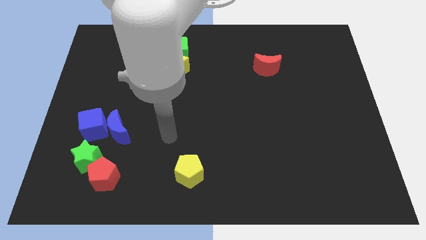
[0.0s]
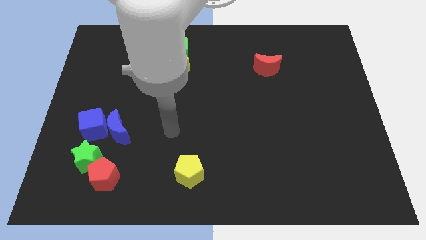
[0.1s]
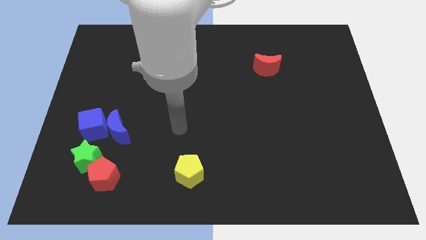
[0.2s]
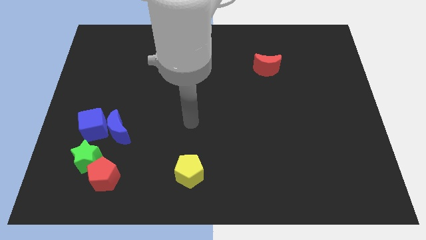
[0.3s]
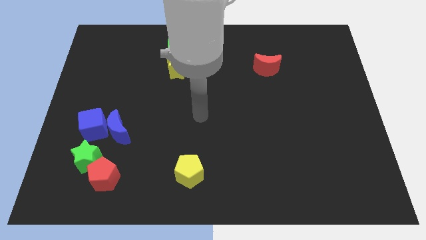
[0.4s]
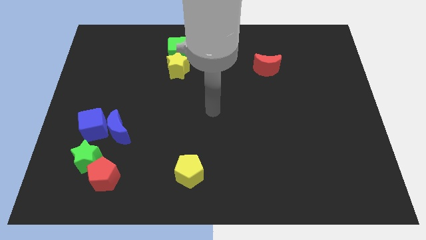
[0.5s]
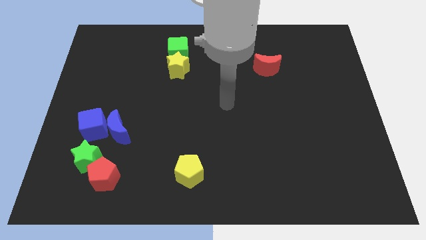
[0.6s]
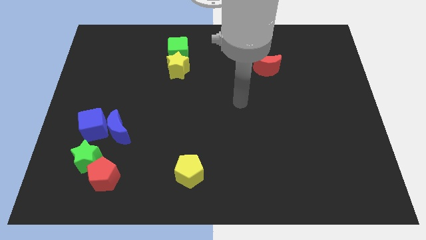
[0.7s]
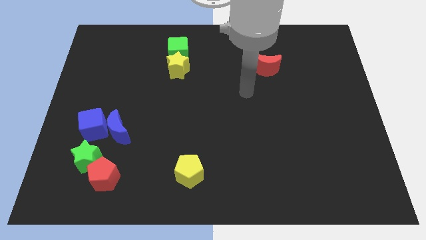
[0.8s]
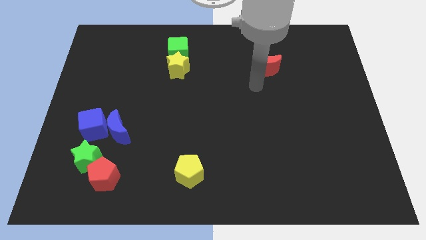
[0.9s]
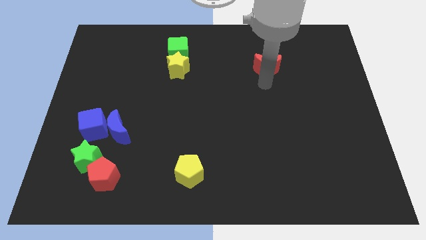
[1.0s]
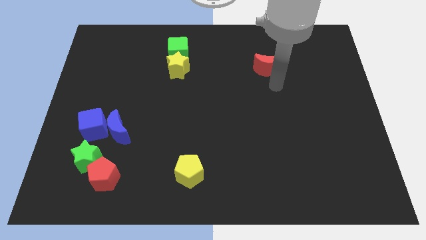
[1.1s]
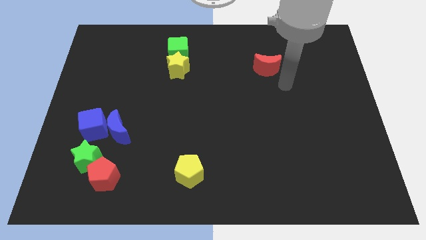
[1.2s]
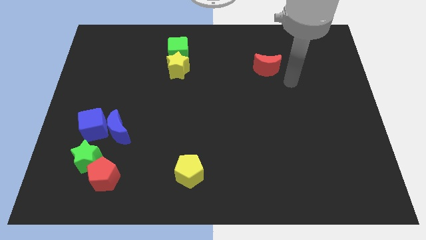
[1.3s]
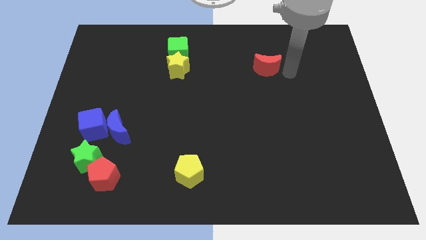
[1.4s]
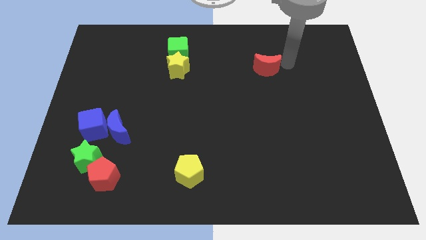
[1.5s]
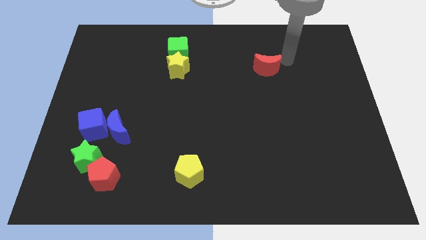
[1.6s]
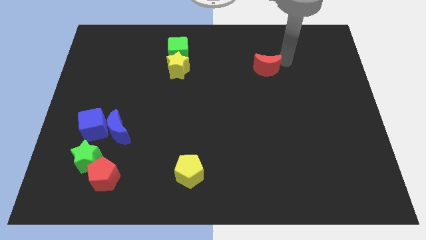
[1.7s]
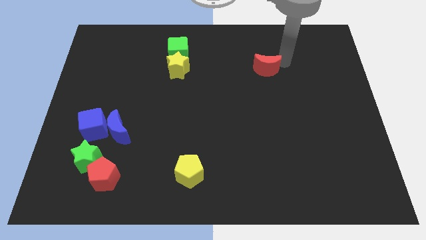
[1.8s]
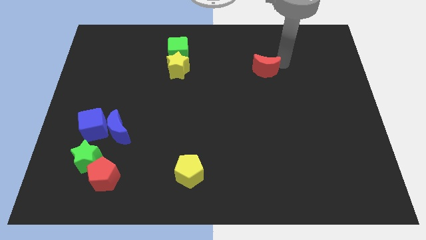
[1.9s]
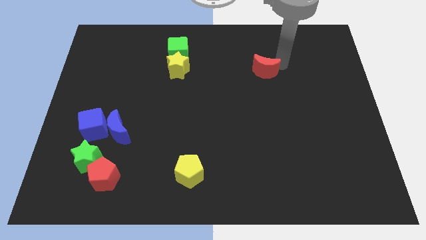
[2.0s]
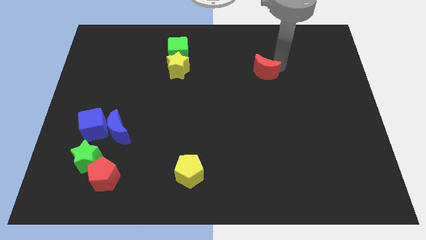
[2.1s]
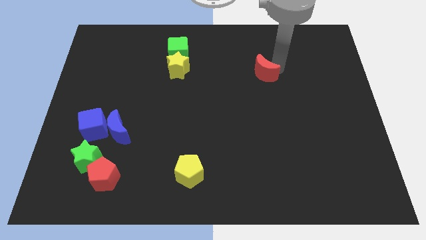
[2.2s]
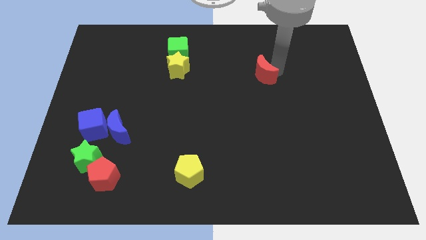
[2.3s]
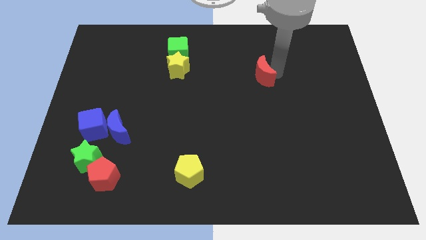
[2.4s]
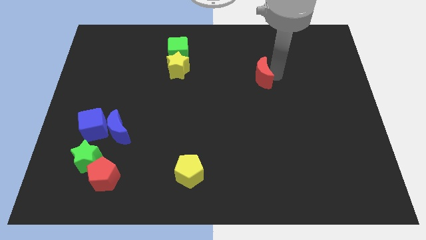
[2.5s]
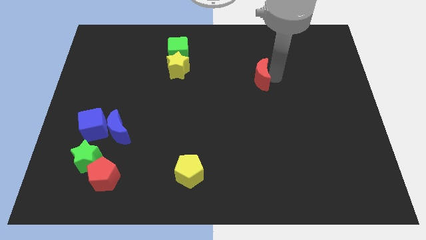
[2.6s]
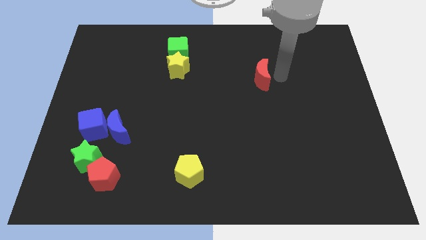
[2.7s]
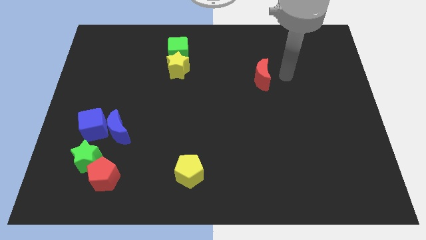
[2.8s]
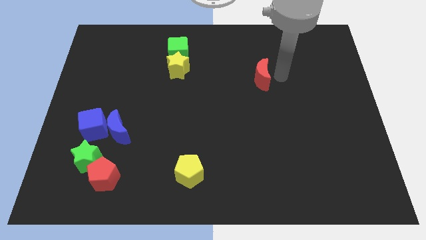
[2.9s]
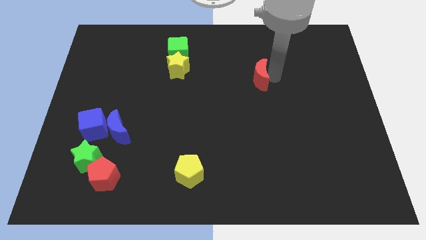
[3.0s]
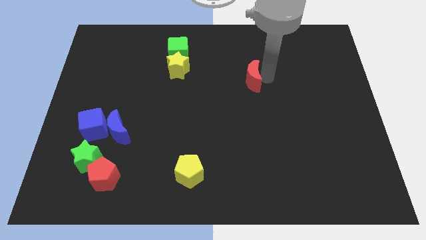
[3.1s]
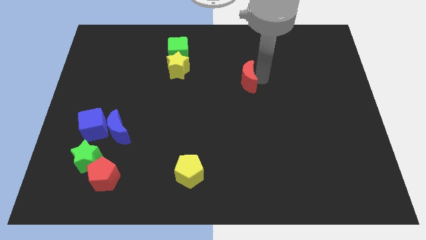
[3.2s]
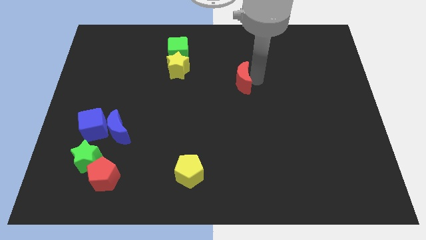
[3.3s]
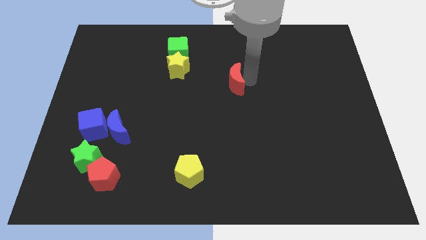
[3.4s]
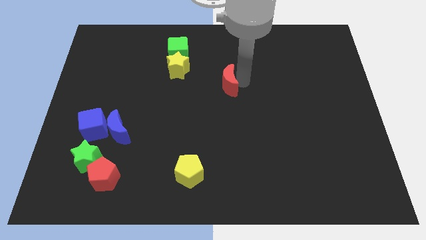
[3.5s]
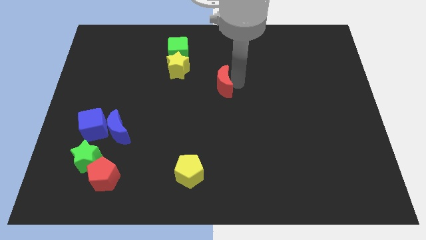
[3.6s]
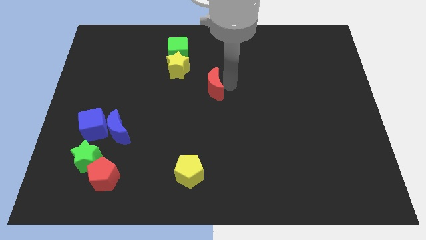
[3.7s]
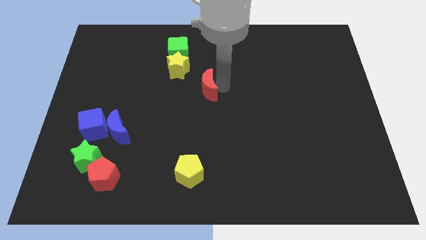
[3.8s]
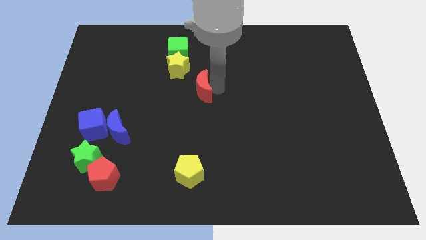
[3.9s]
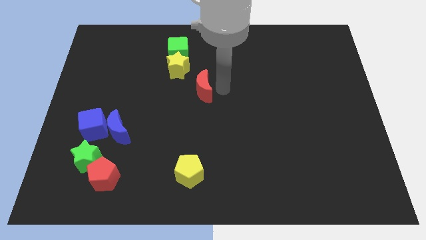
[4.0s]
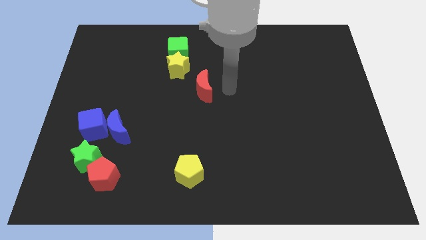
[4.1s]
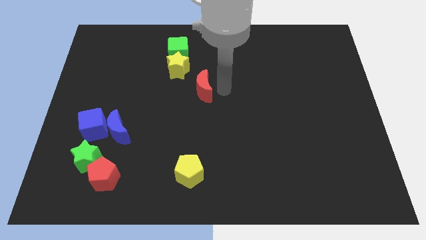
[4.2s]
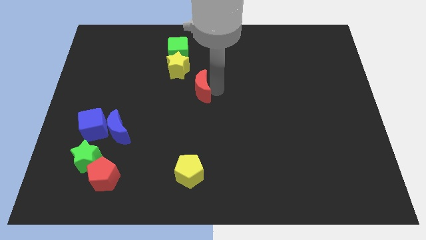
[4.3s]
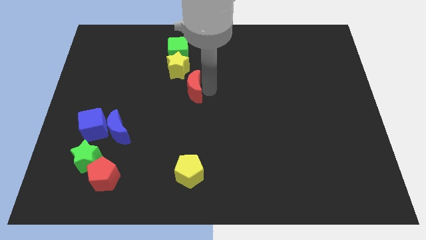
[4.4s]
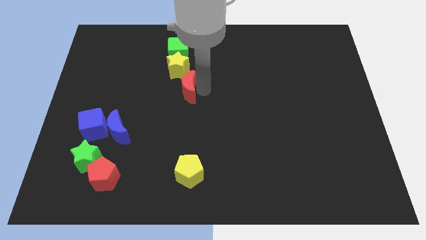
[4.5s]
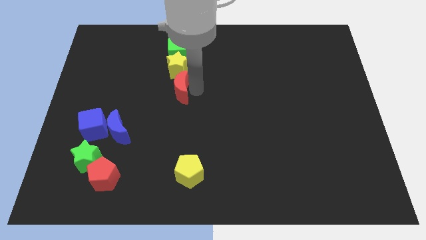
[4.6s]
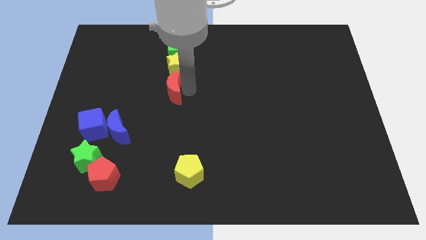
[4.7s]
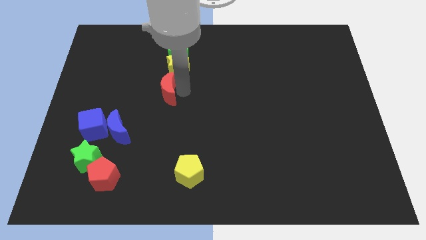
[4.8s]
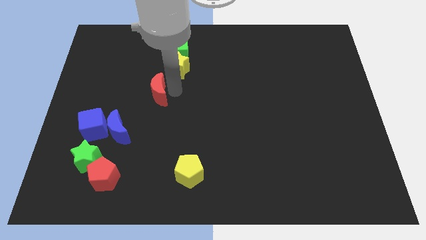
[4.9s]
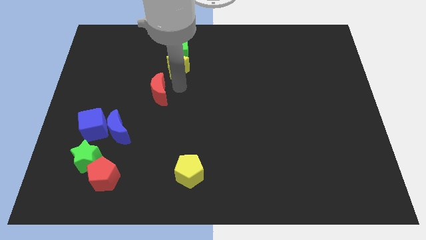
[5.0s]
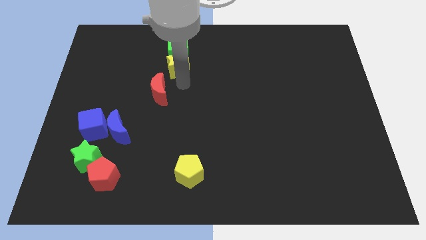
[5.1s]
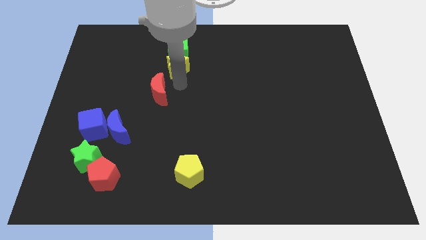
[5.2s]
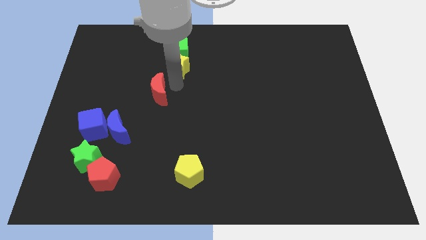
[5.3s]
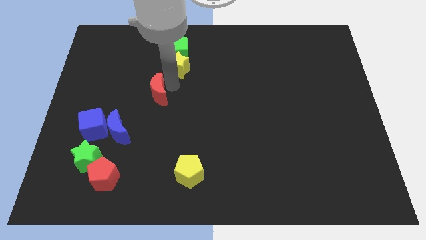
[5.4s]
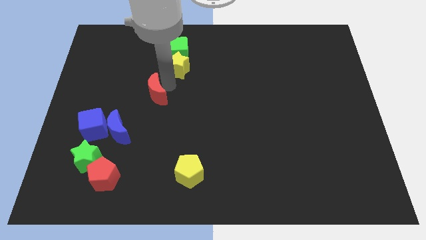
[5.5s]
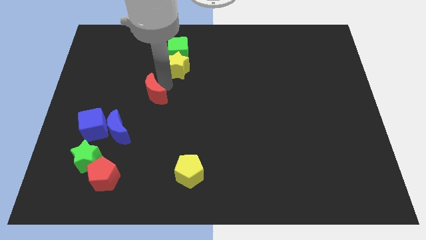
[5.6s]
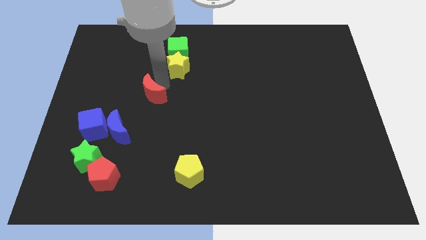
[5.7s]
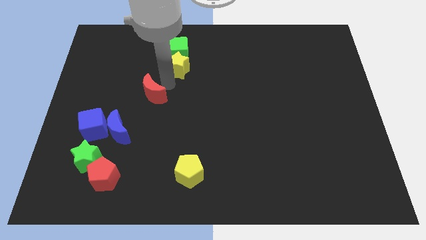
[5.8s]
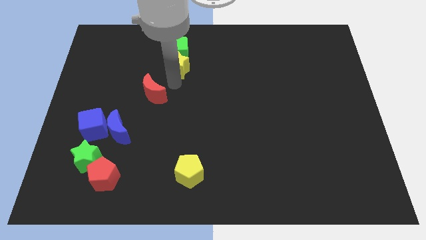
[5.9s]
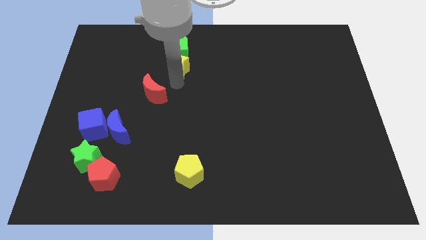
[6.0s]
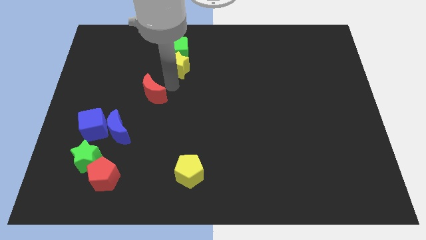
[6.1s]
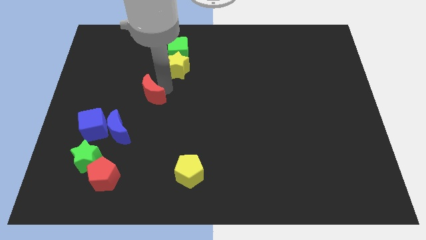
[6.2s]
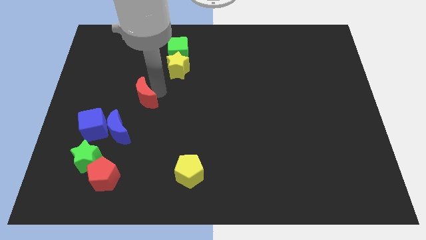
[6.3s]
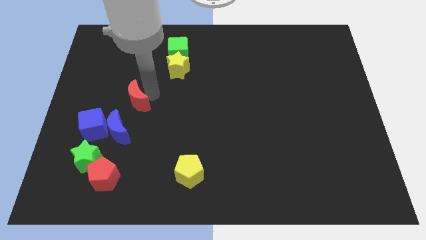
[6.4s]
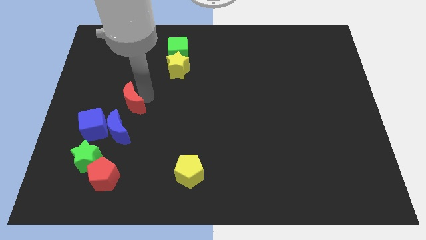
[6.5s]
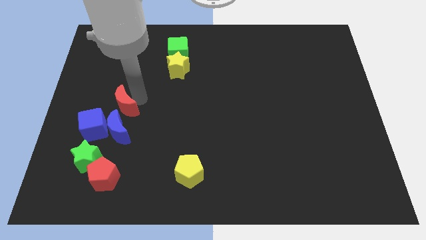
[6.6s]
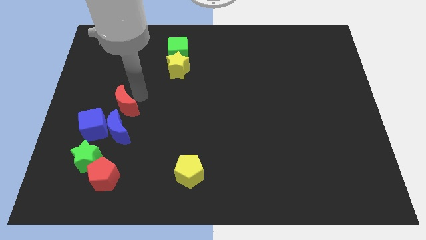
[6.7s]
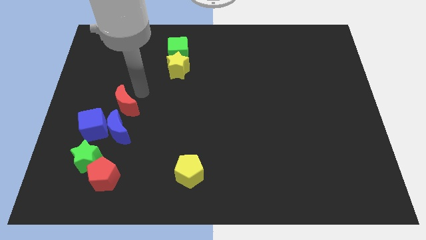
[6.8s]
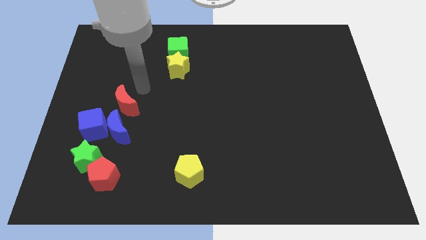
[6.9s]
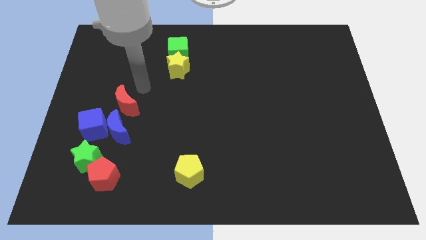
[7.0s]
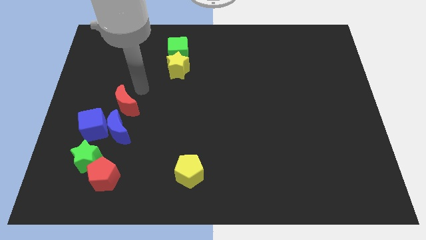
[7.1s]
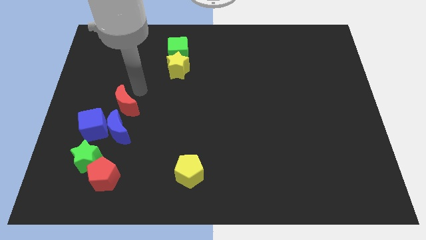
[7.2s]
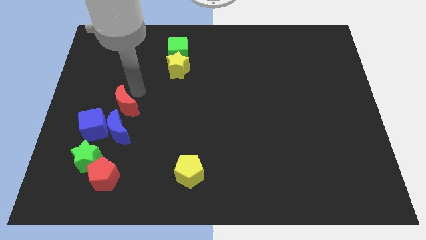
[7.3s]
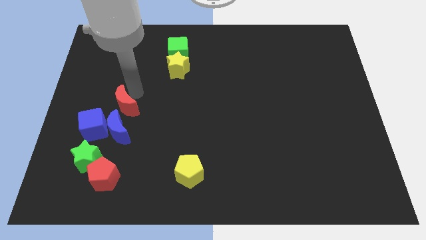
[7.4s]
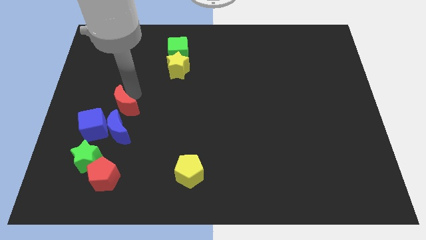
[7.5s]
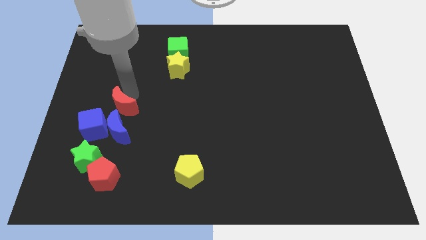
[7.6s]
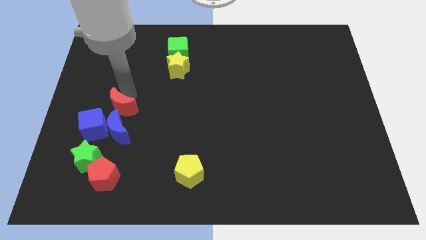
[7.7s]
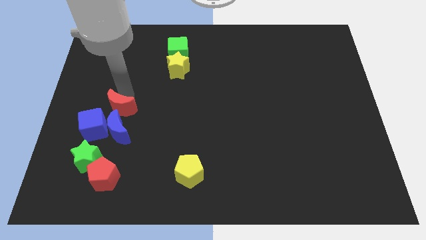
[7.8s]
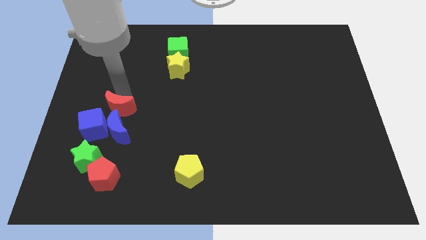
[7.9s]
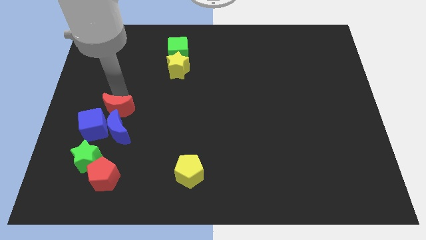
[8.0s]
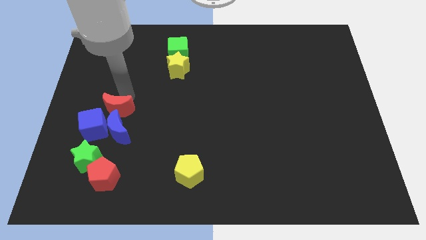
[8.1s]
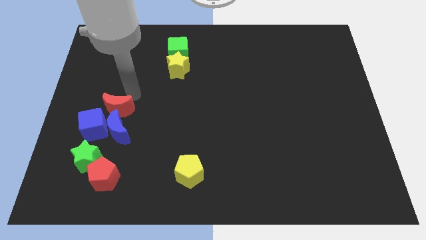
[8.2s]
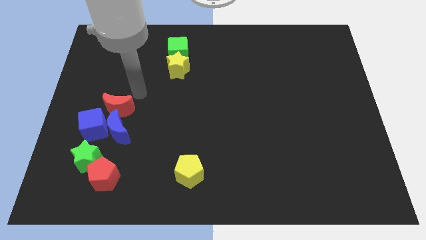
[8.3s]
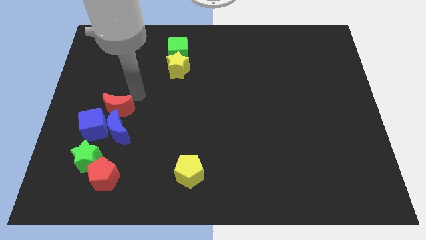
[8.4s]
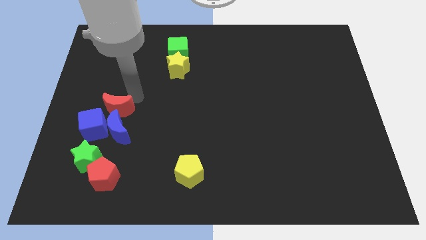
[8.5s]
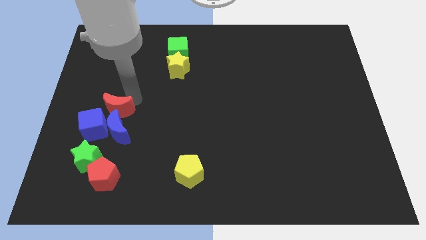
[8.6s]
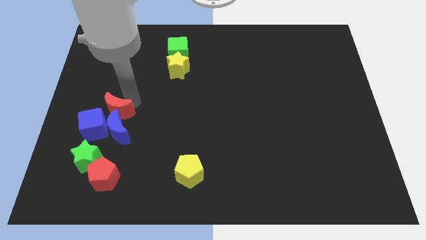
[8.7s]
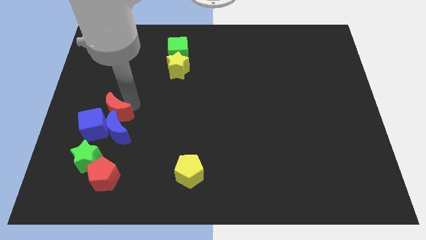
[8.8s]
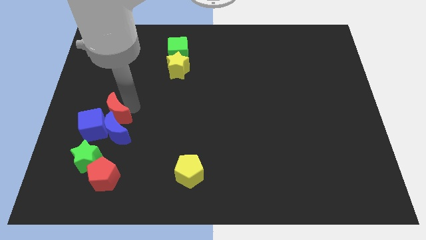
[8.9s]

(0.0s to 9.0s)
push the red moon next to the blue cube
